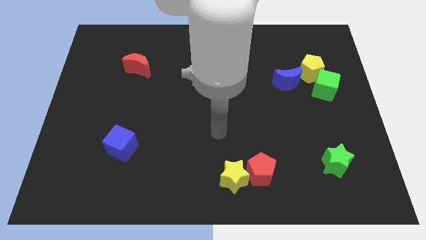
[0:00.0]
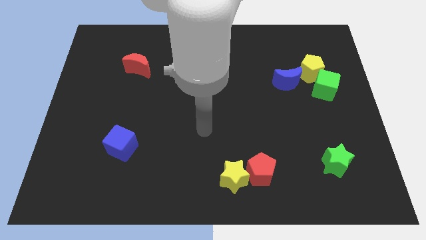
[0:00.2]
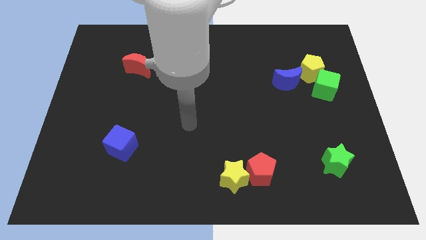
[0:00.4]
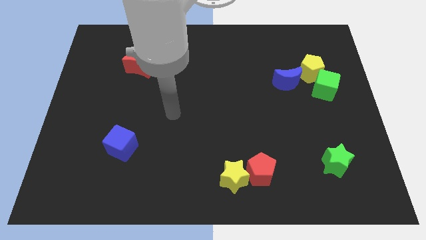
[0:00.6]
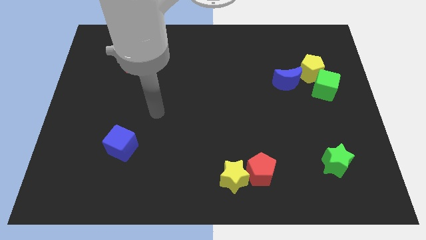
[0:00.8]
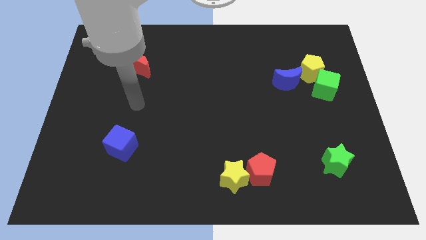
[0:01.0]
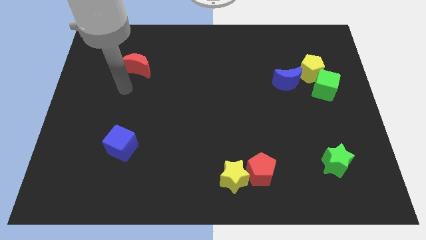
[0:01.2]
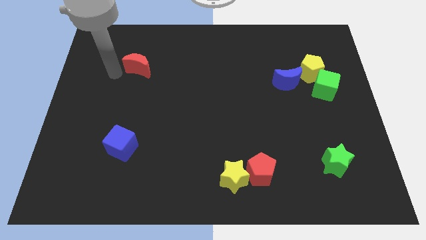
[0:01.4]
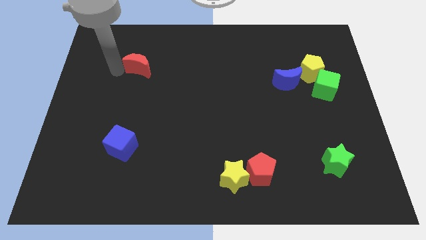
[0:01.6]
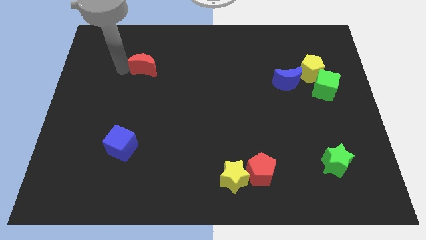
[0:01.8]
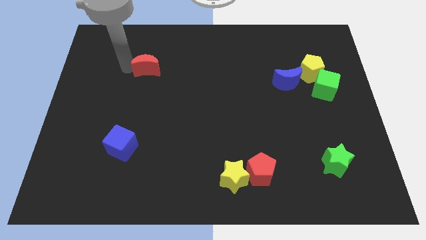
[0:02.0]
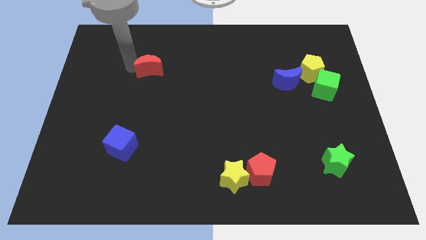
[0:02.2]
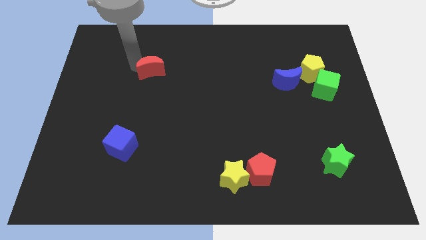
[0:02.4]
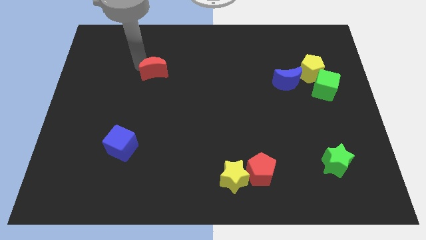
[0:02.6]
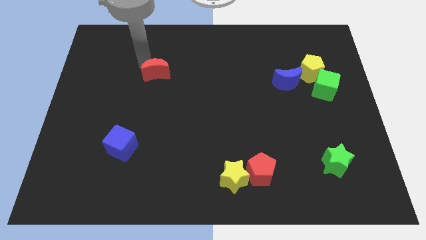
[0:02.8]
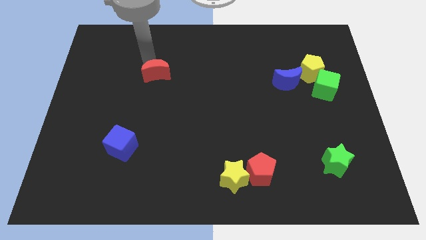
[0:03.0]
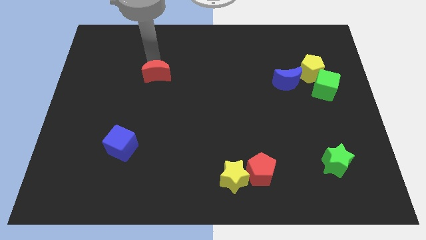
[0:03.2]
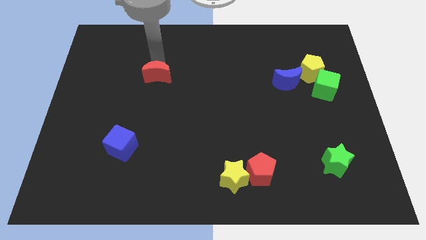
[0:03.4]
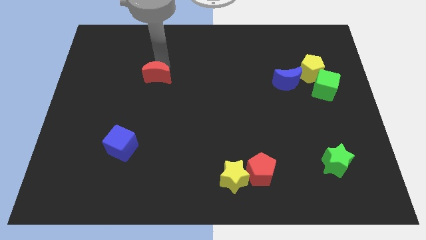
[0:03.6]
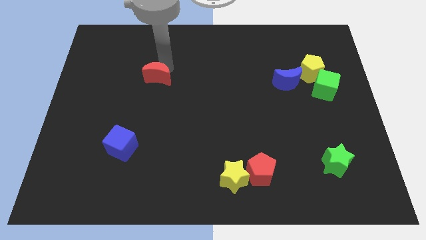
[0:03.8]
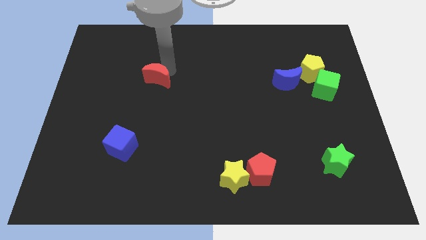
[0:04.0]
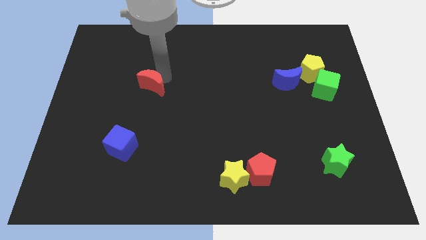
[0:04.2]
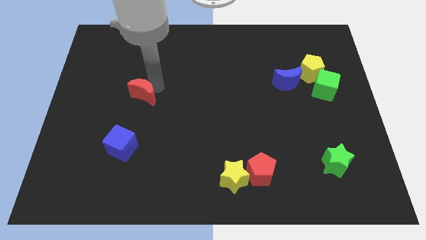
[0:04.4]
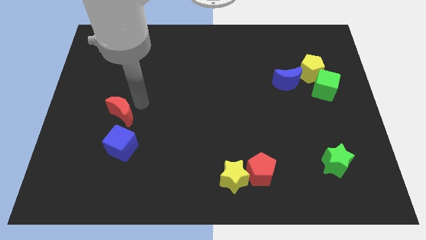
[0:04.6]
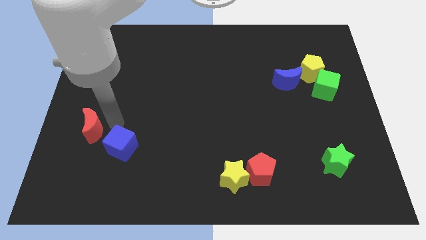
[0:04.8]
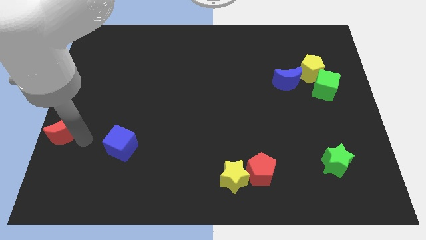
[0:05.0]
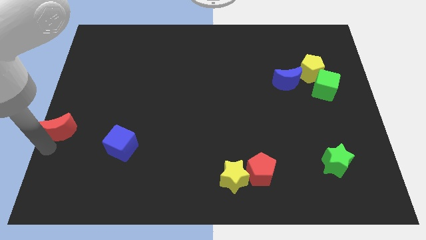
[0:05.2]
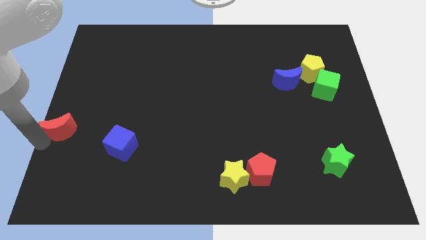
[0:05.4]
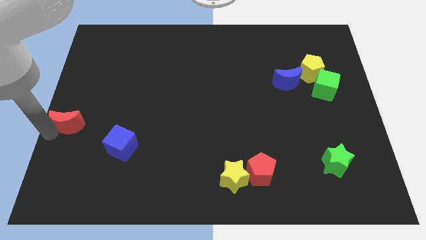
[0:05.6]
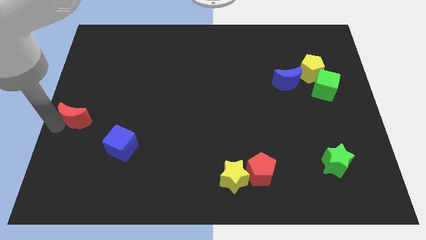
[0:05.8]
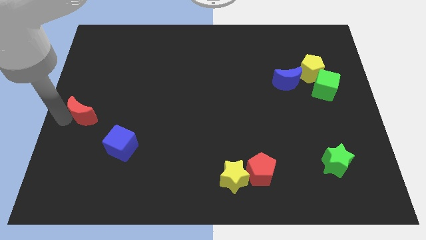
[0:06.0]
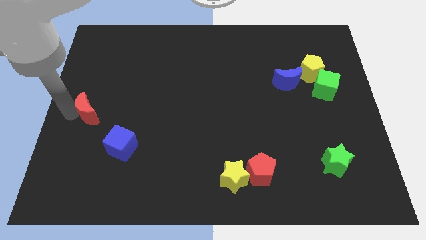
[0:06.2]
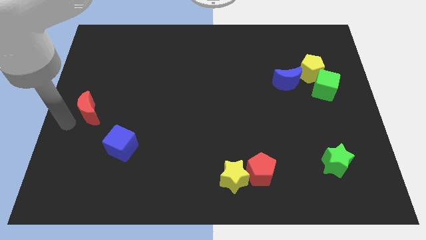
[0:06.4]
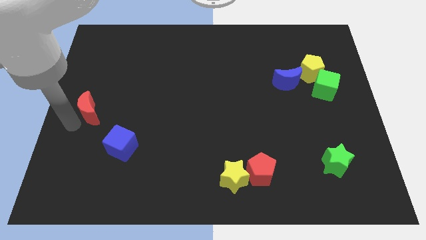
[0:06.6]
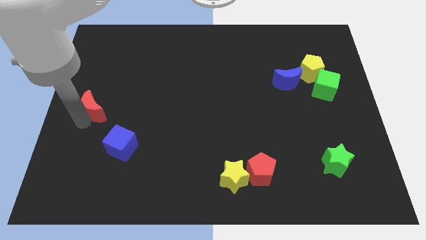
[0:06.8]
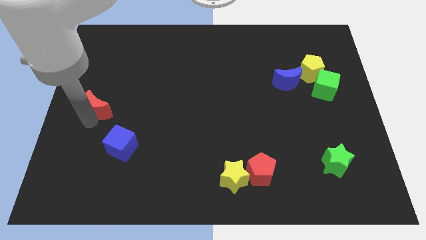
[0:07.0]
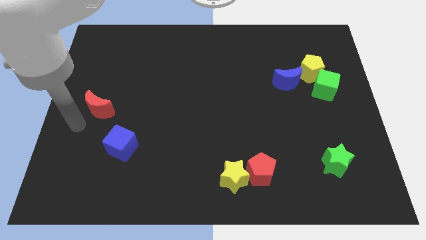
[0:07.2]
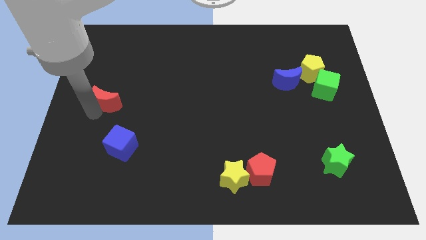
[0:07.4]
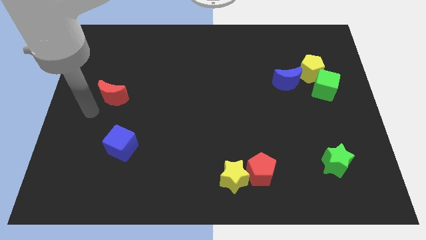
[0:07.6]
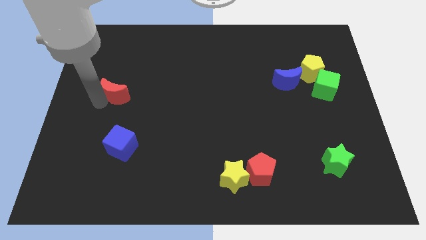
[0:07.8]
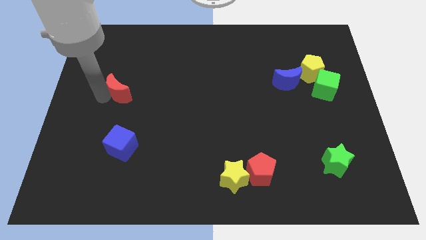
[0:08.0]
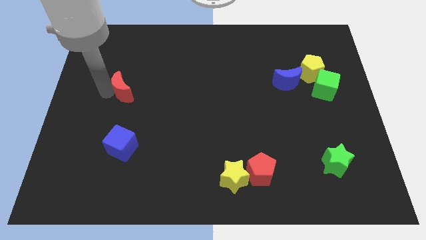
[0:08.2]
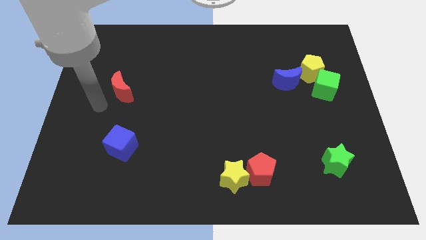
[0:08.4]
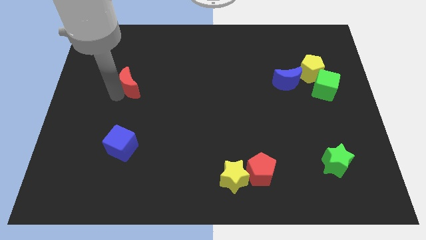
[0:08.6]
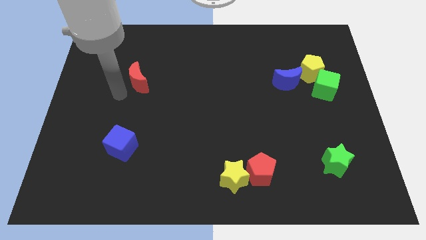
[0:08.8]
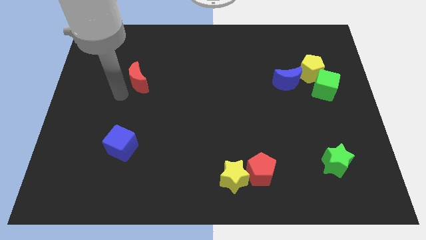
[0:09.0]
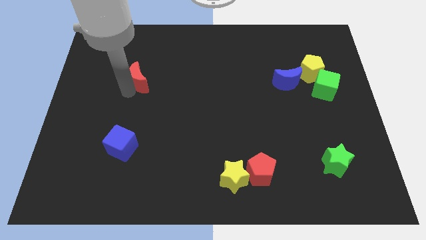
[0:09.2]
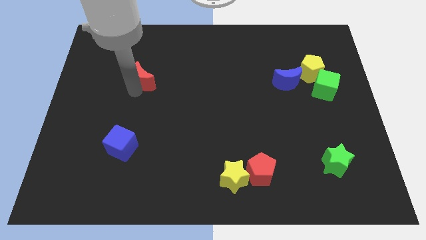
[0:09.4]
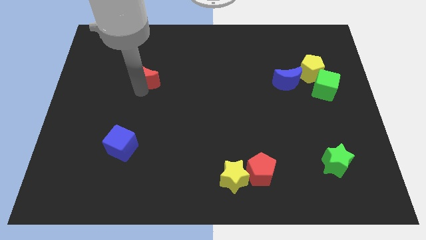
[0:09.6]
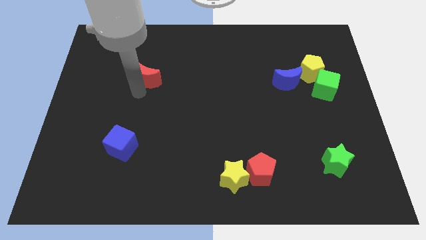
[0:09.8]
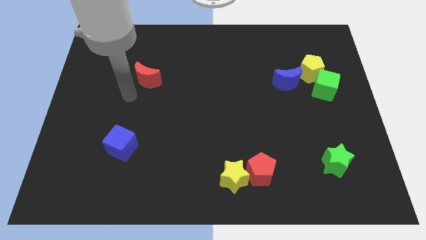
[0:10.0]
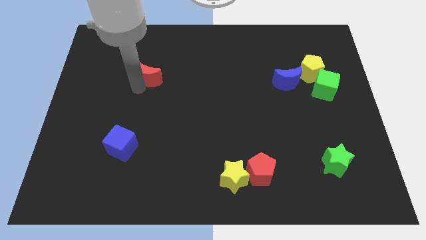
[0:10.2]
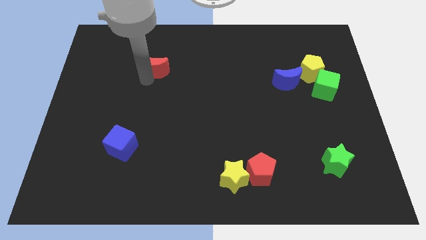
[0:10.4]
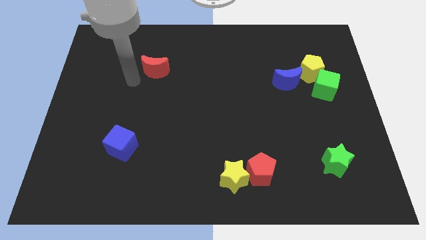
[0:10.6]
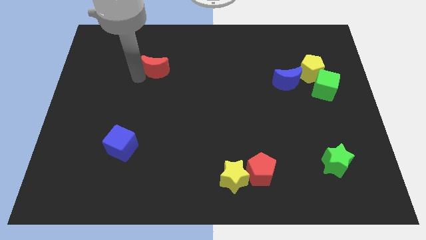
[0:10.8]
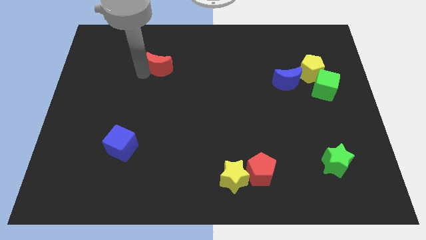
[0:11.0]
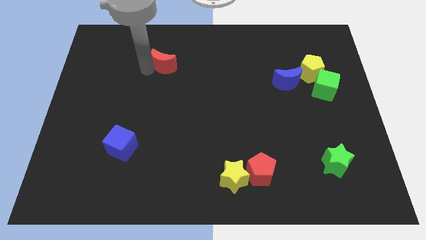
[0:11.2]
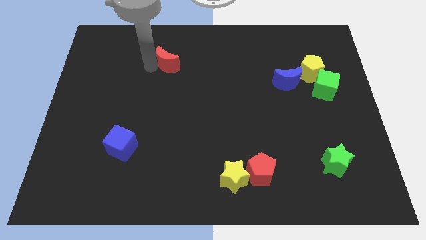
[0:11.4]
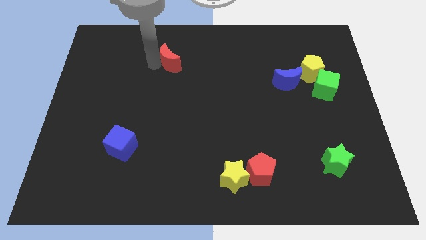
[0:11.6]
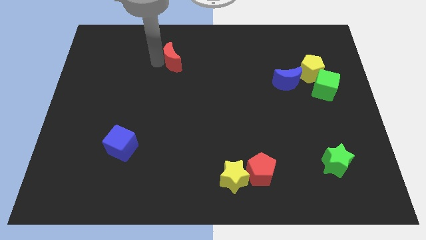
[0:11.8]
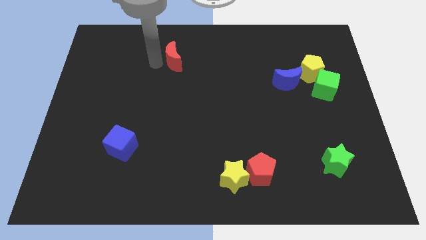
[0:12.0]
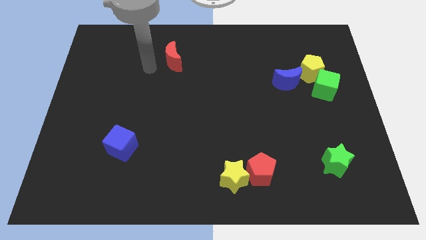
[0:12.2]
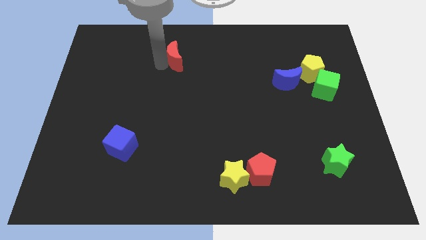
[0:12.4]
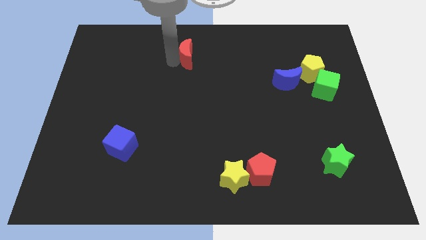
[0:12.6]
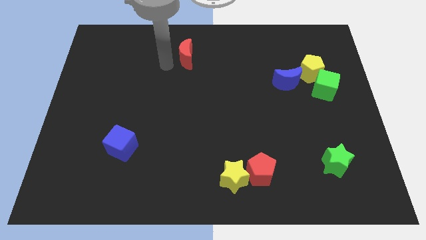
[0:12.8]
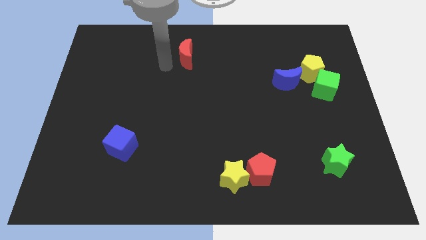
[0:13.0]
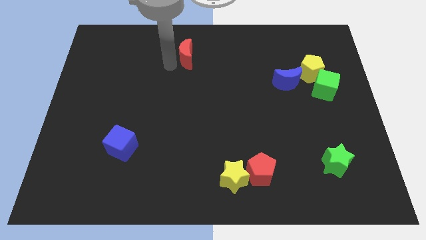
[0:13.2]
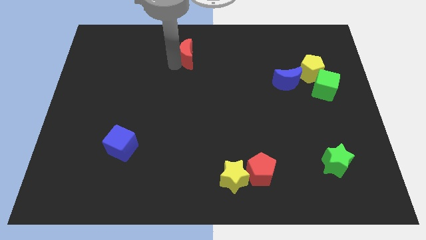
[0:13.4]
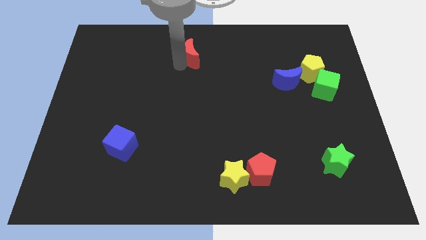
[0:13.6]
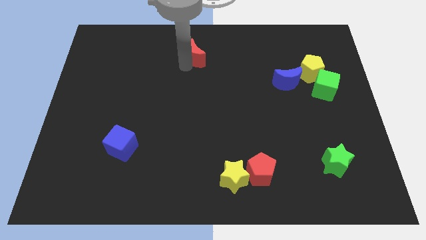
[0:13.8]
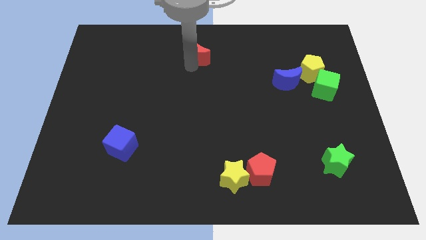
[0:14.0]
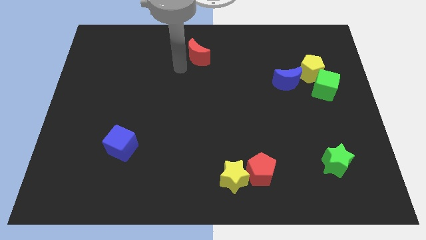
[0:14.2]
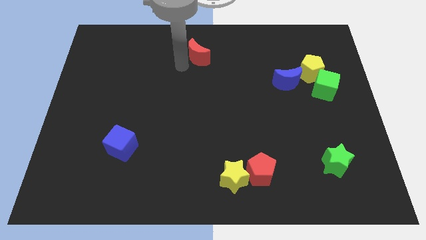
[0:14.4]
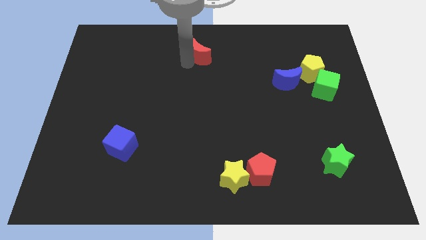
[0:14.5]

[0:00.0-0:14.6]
move the red moon to the top side
